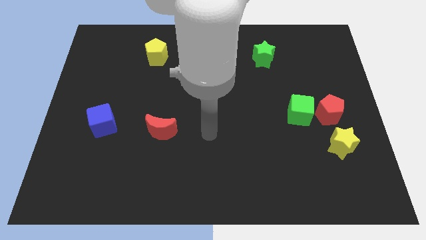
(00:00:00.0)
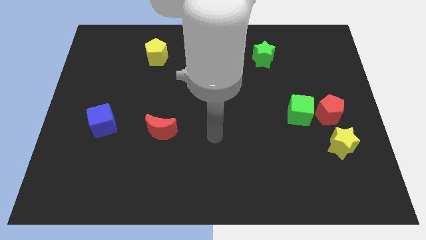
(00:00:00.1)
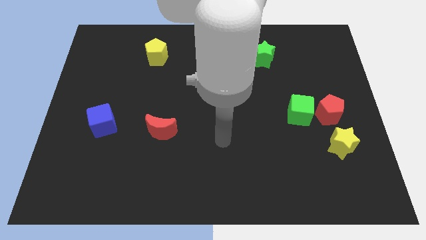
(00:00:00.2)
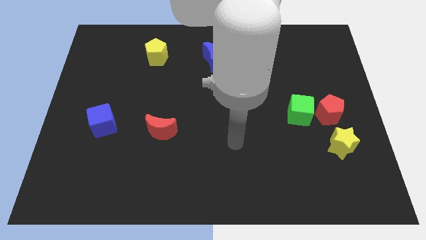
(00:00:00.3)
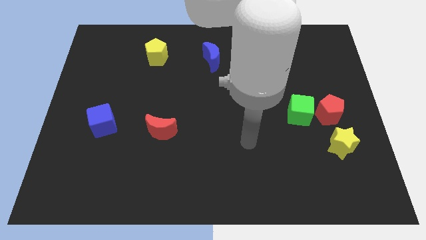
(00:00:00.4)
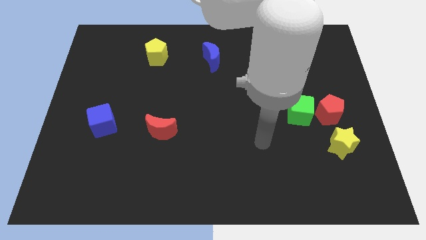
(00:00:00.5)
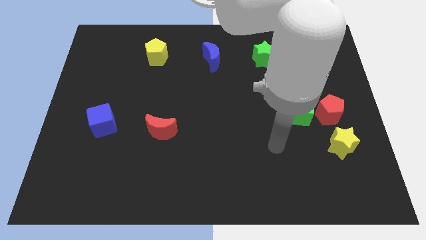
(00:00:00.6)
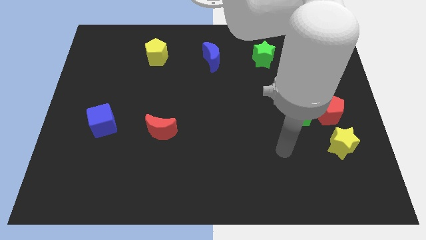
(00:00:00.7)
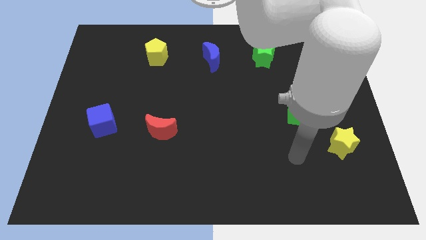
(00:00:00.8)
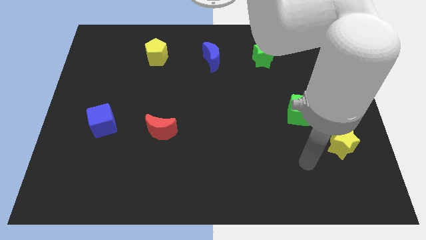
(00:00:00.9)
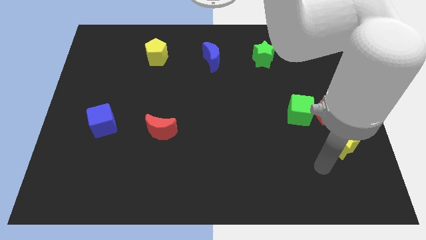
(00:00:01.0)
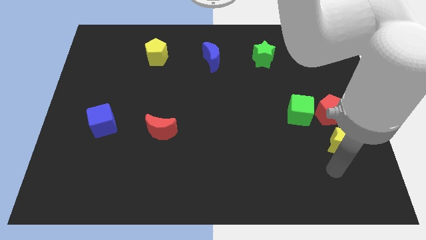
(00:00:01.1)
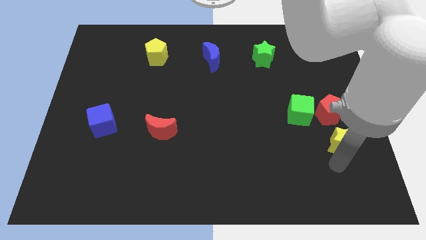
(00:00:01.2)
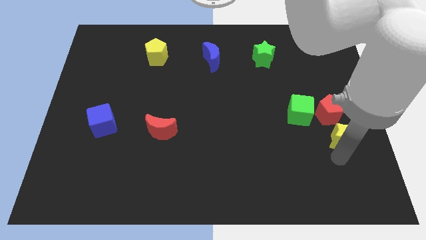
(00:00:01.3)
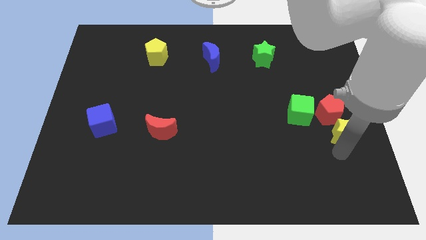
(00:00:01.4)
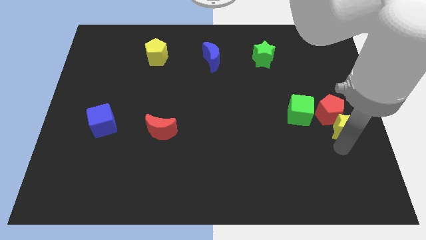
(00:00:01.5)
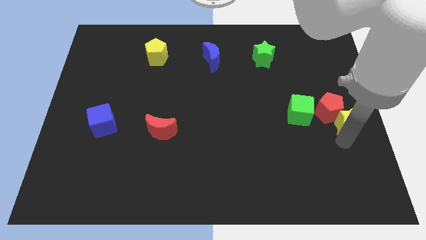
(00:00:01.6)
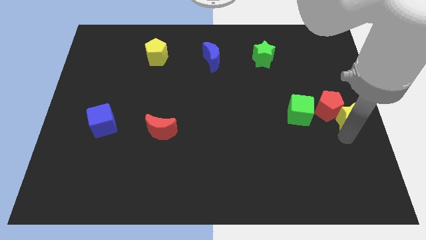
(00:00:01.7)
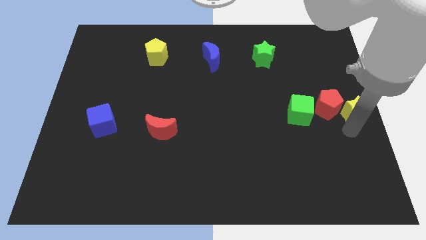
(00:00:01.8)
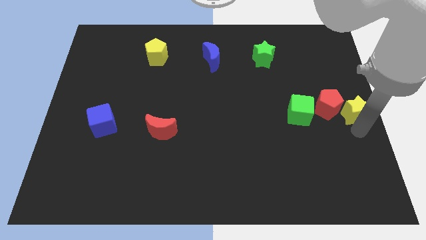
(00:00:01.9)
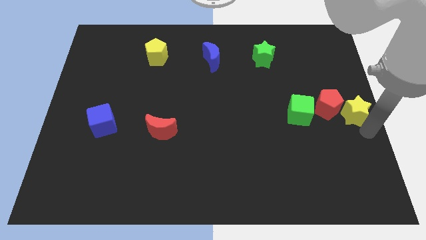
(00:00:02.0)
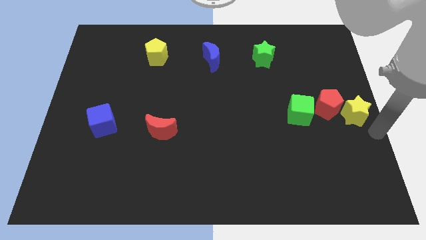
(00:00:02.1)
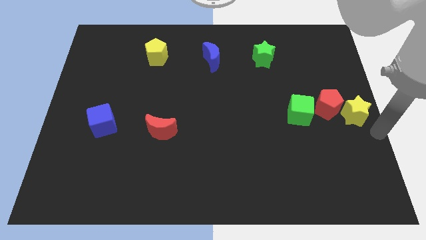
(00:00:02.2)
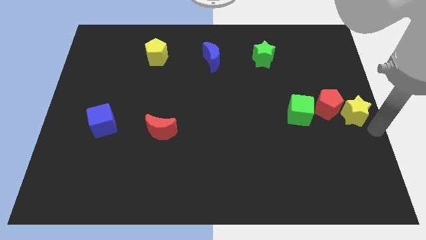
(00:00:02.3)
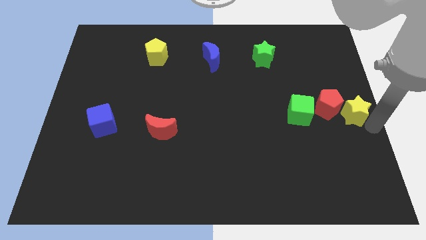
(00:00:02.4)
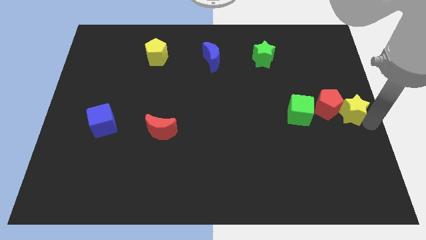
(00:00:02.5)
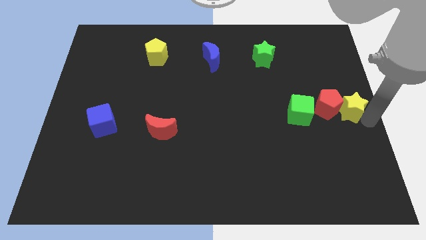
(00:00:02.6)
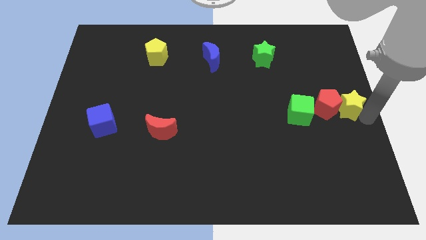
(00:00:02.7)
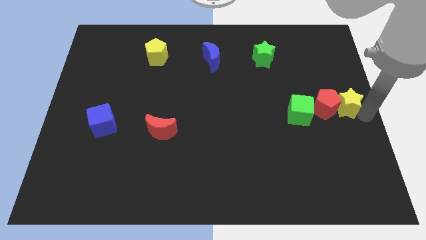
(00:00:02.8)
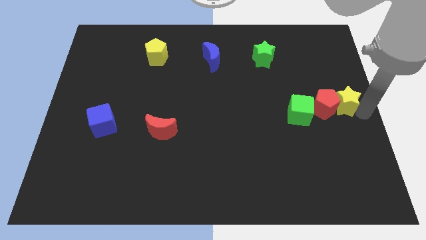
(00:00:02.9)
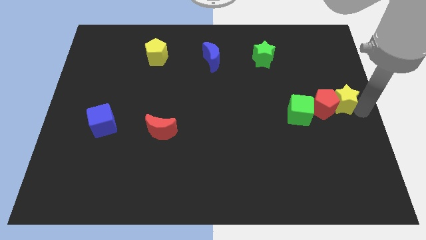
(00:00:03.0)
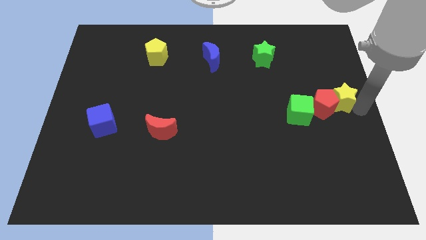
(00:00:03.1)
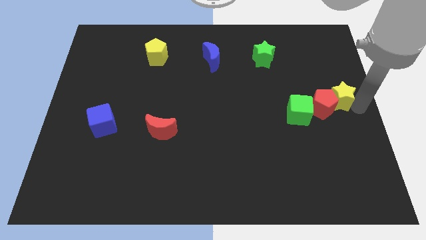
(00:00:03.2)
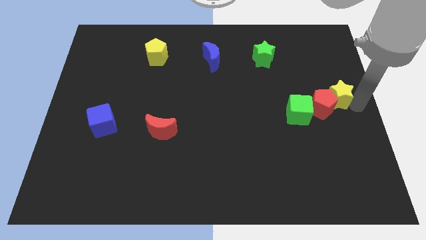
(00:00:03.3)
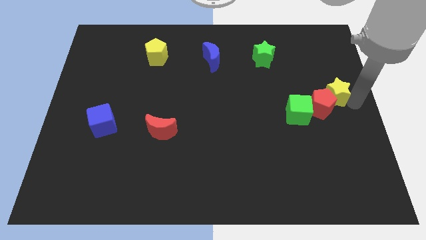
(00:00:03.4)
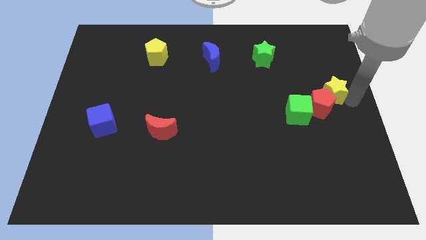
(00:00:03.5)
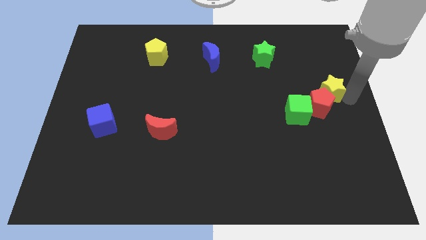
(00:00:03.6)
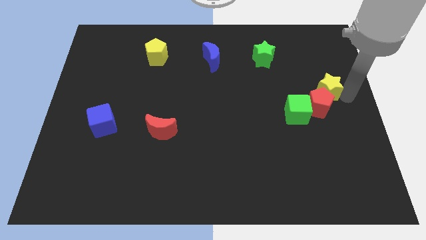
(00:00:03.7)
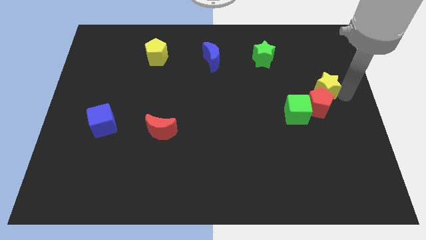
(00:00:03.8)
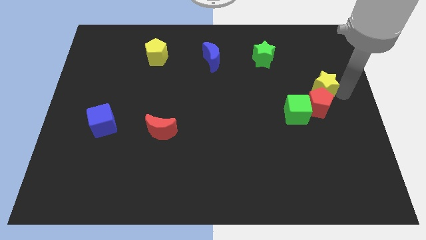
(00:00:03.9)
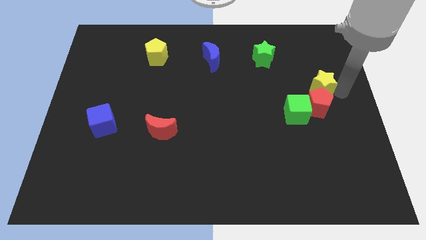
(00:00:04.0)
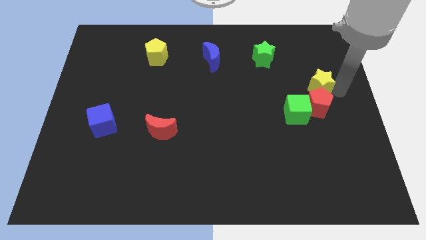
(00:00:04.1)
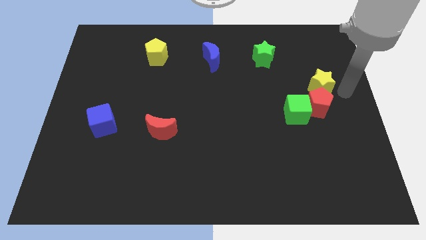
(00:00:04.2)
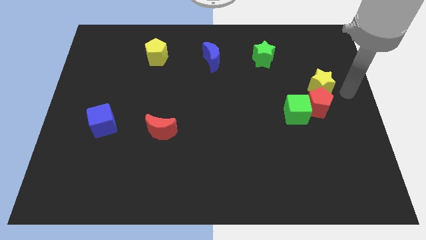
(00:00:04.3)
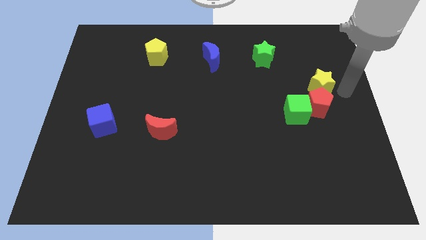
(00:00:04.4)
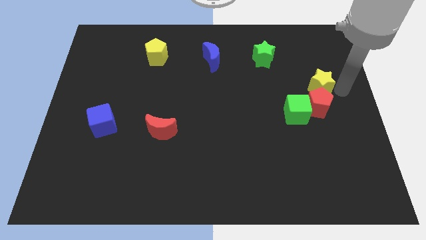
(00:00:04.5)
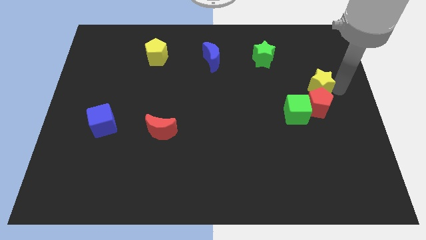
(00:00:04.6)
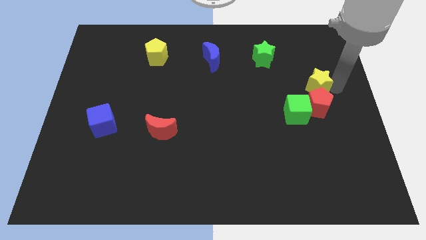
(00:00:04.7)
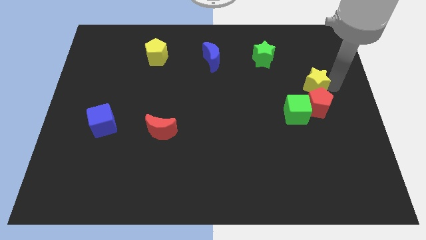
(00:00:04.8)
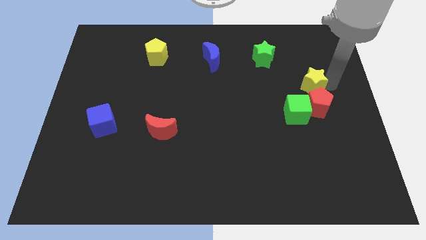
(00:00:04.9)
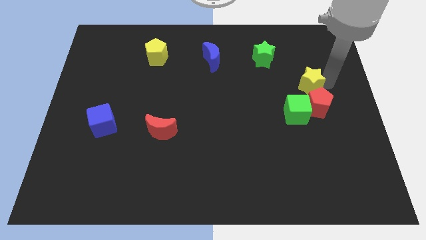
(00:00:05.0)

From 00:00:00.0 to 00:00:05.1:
put the yellow star above the green cube

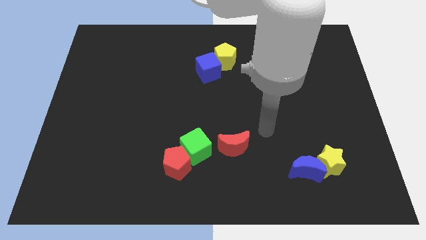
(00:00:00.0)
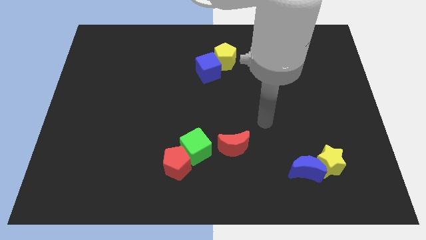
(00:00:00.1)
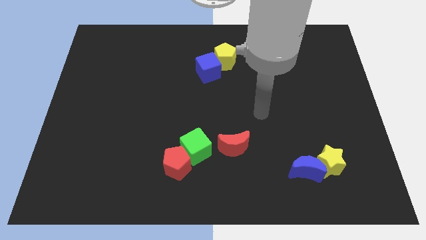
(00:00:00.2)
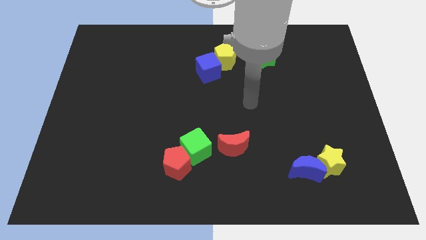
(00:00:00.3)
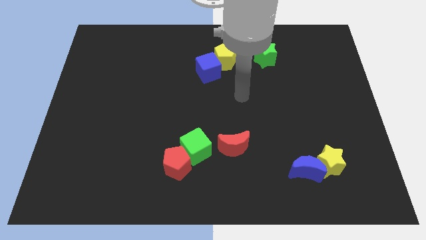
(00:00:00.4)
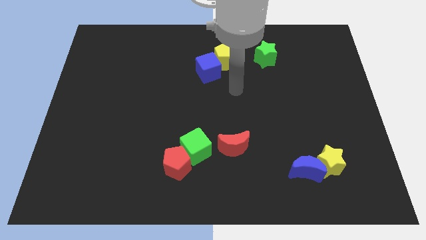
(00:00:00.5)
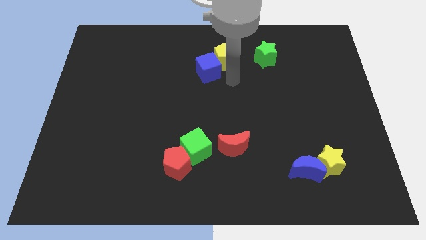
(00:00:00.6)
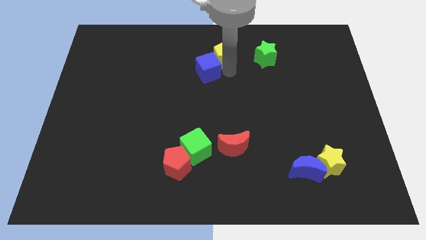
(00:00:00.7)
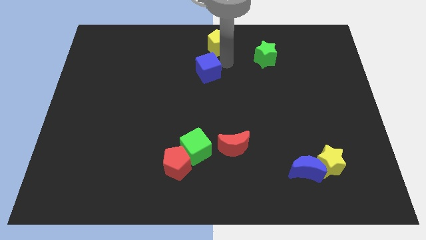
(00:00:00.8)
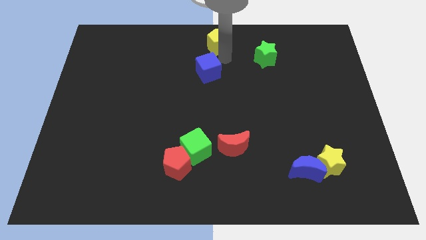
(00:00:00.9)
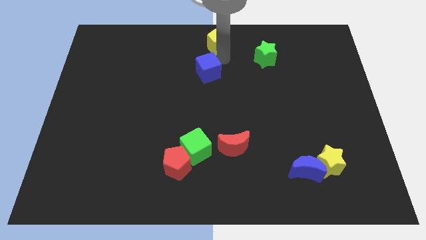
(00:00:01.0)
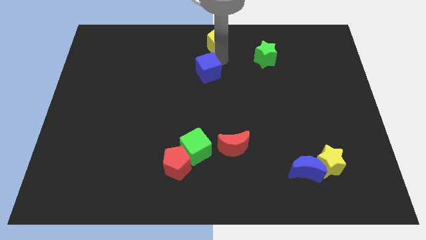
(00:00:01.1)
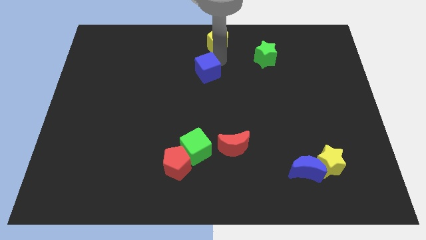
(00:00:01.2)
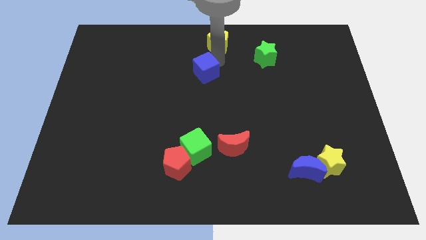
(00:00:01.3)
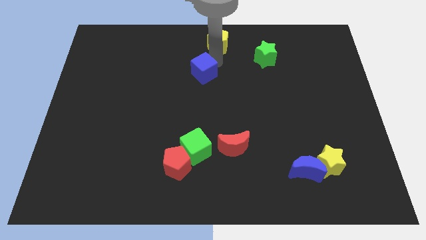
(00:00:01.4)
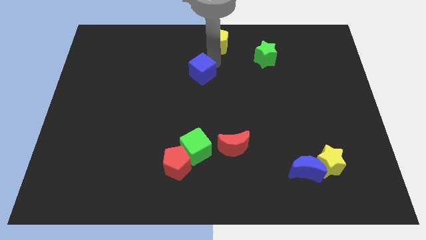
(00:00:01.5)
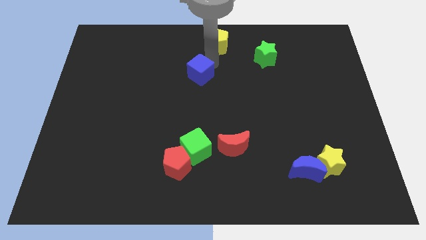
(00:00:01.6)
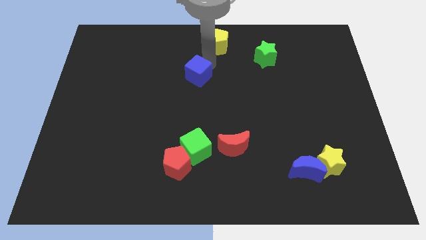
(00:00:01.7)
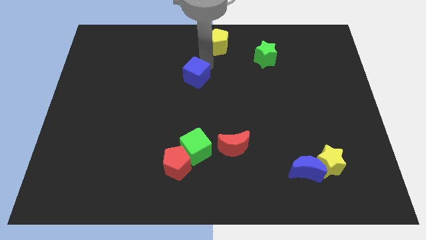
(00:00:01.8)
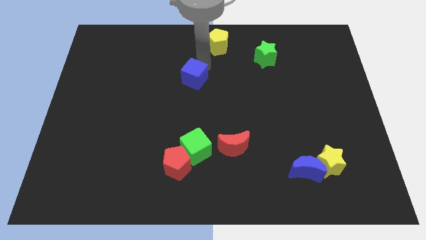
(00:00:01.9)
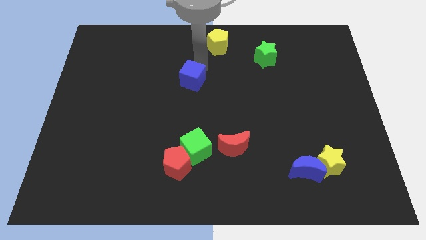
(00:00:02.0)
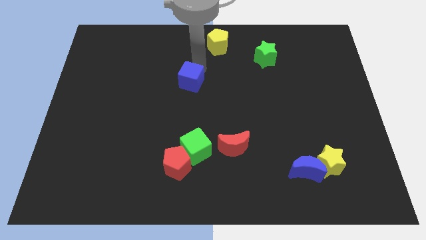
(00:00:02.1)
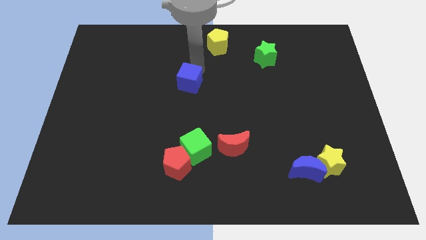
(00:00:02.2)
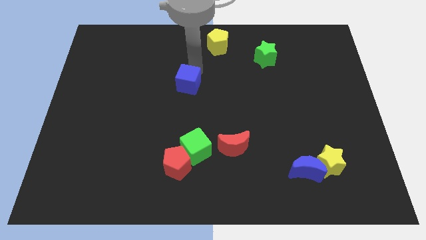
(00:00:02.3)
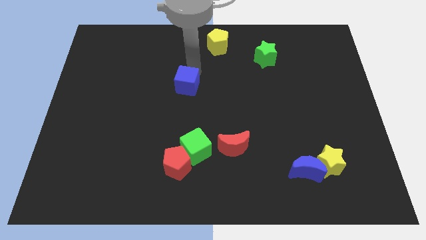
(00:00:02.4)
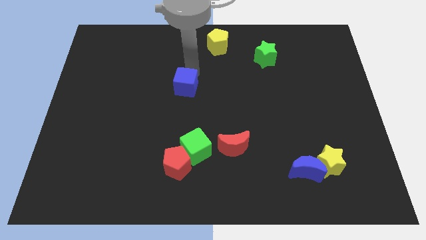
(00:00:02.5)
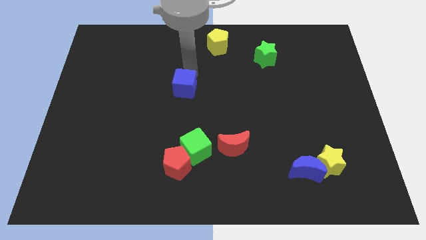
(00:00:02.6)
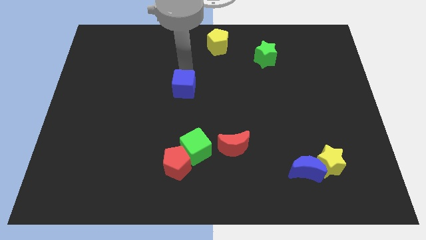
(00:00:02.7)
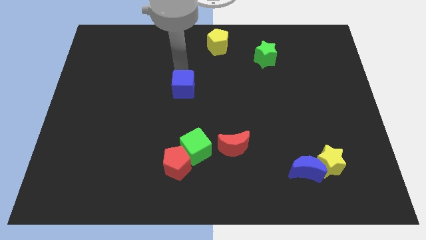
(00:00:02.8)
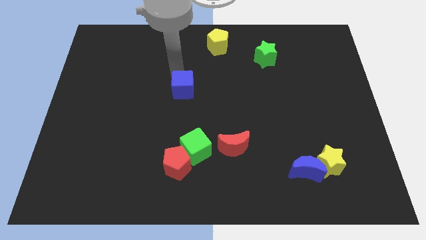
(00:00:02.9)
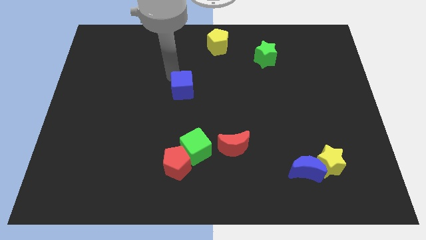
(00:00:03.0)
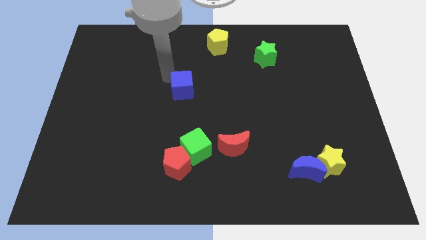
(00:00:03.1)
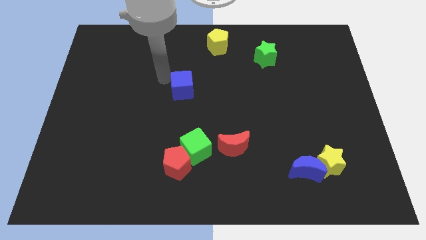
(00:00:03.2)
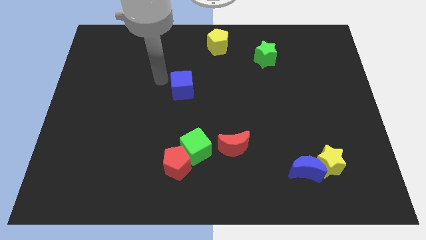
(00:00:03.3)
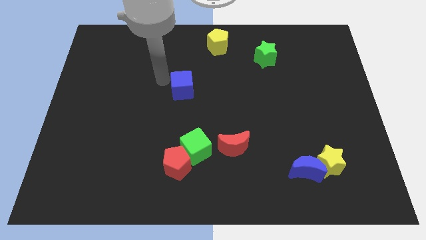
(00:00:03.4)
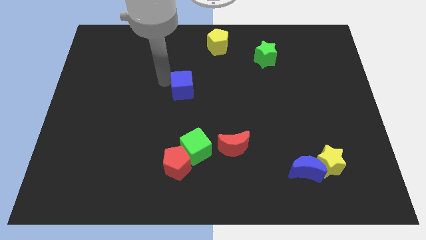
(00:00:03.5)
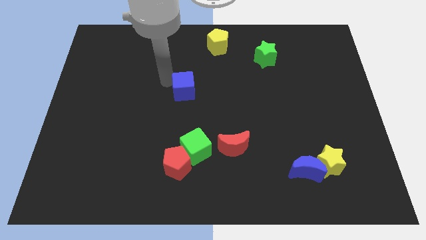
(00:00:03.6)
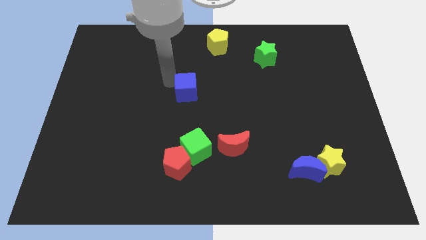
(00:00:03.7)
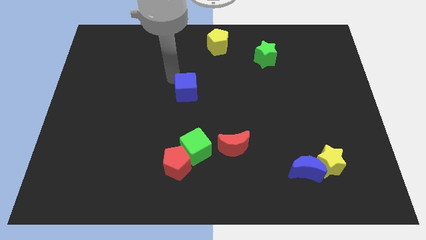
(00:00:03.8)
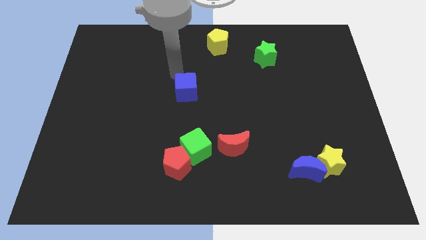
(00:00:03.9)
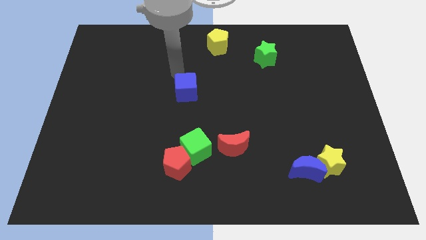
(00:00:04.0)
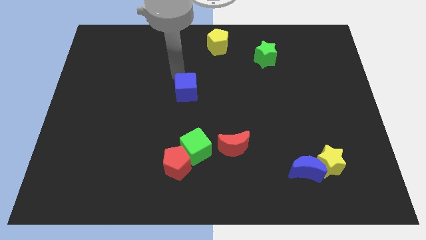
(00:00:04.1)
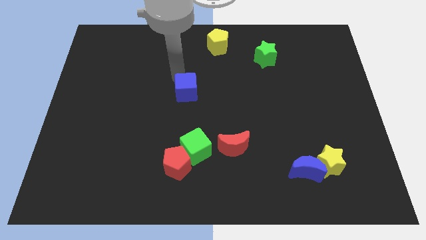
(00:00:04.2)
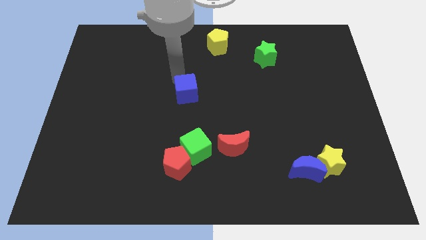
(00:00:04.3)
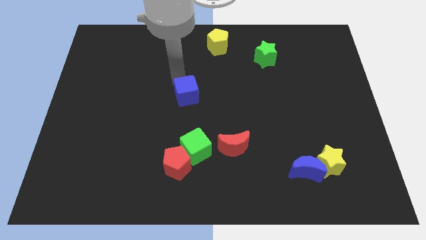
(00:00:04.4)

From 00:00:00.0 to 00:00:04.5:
push the blue cube above the green cube
